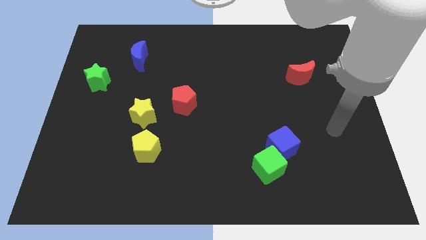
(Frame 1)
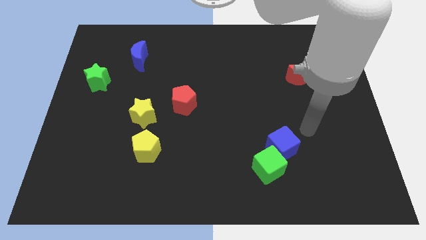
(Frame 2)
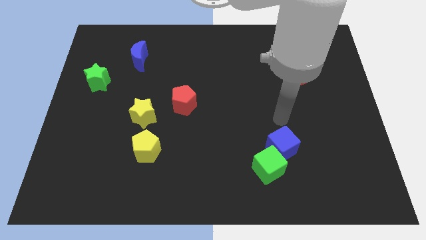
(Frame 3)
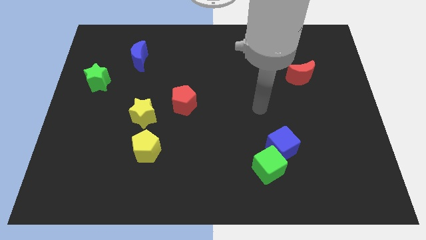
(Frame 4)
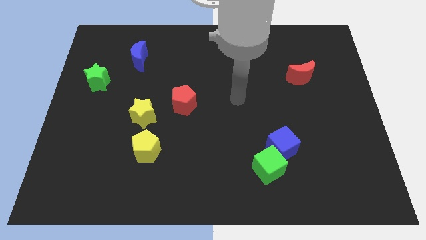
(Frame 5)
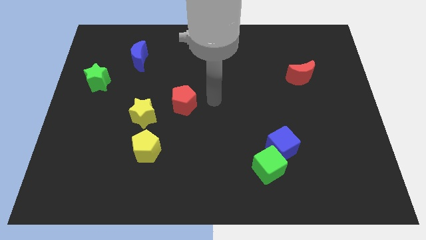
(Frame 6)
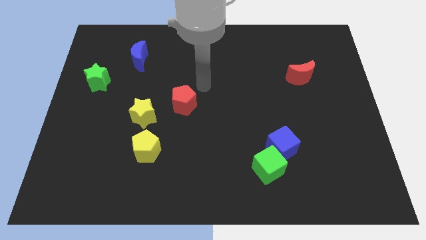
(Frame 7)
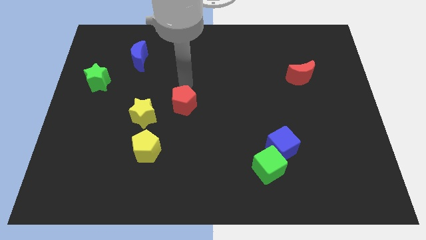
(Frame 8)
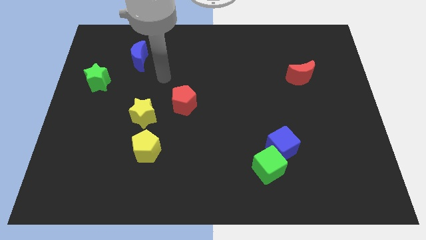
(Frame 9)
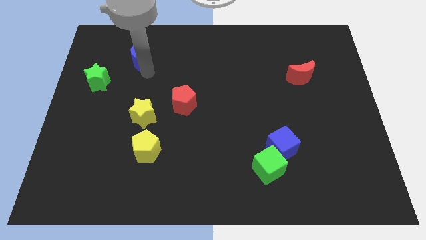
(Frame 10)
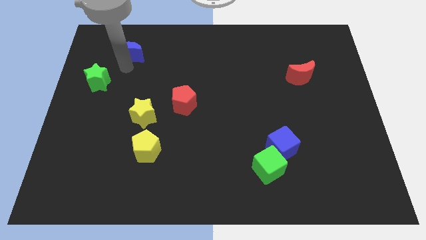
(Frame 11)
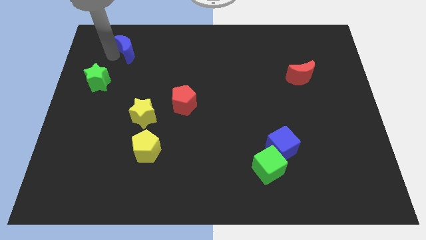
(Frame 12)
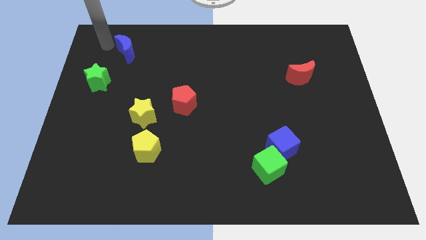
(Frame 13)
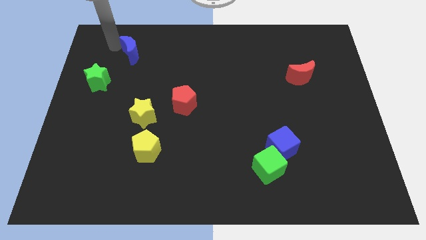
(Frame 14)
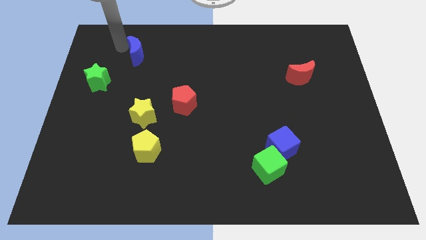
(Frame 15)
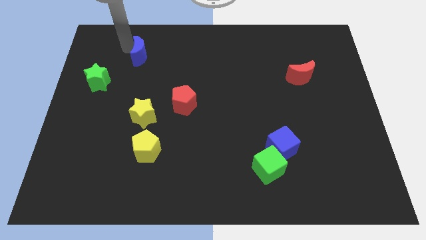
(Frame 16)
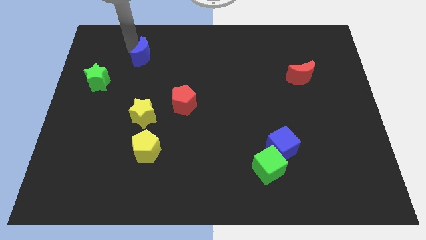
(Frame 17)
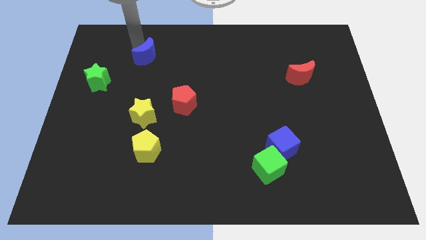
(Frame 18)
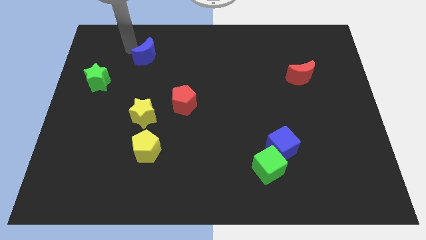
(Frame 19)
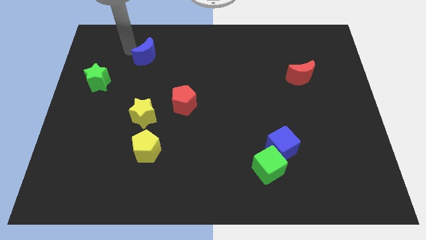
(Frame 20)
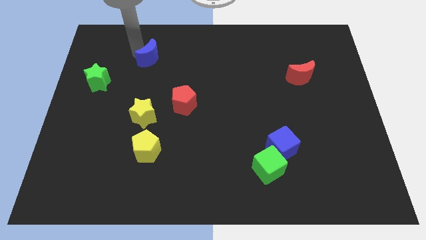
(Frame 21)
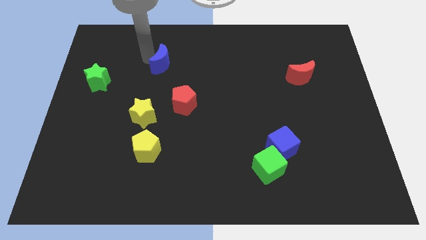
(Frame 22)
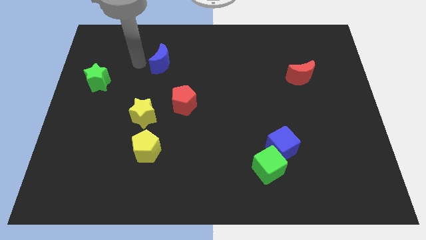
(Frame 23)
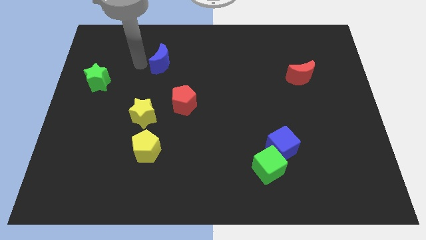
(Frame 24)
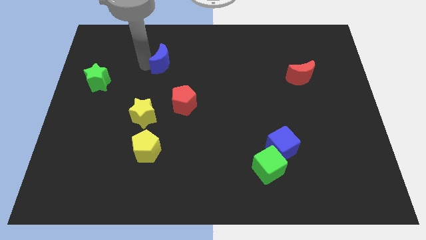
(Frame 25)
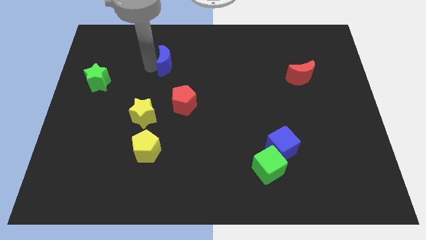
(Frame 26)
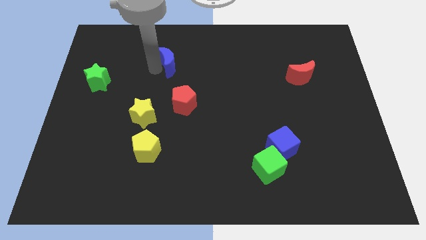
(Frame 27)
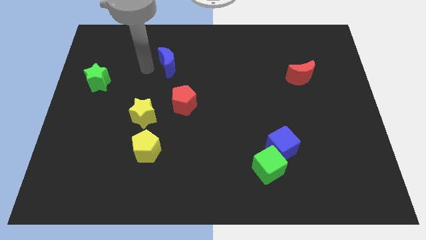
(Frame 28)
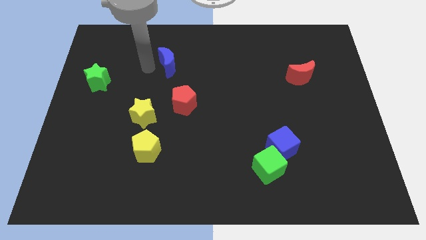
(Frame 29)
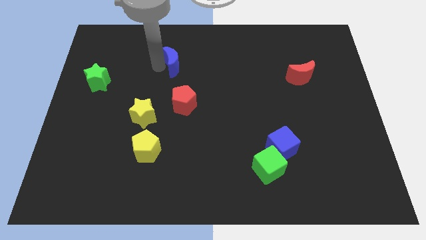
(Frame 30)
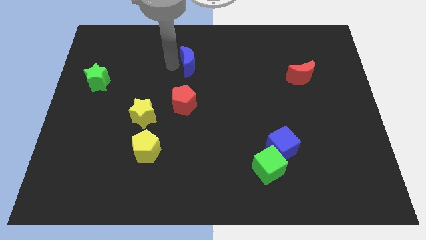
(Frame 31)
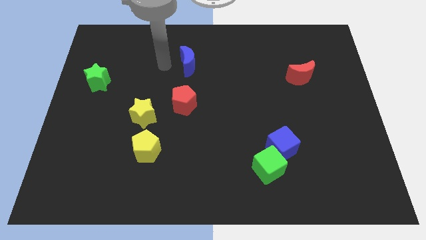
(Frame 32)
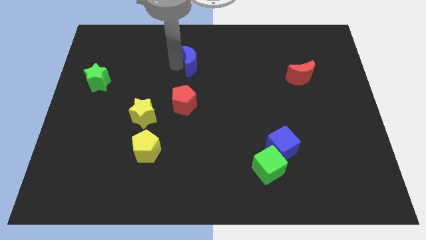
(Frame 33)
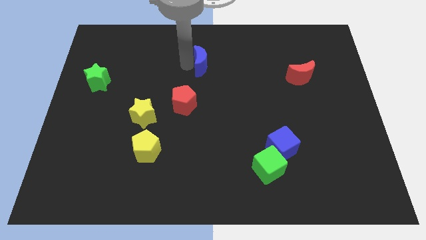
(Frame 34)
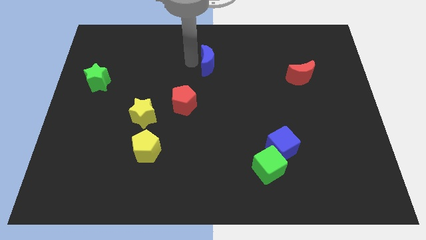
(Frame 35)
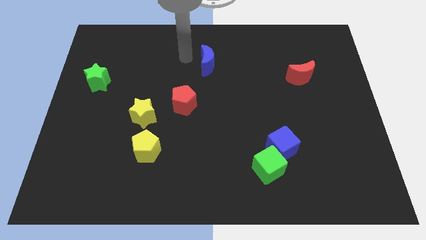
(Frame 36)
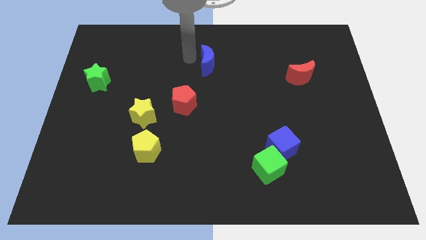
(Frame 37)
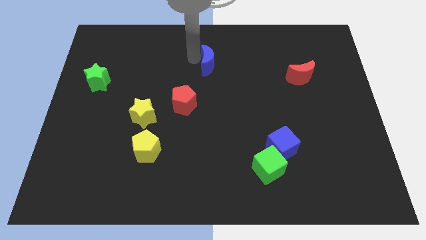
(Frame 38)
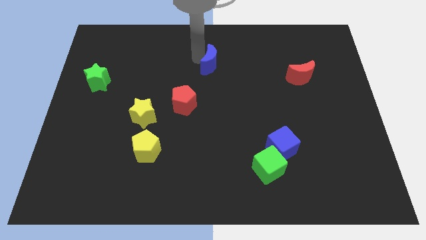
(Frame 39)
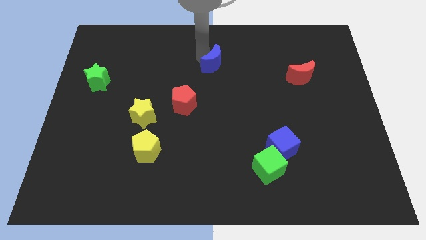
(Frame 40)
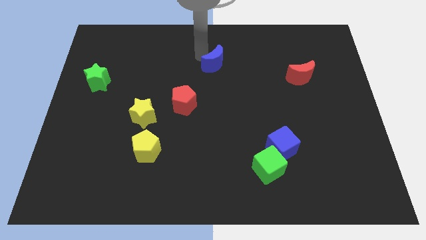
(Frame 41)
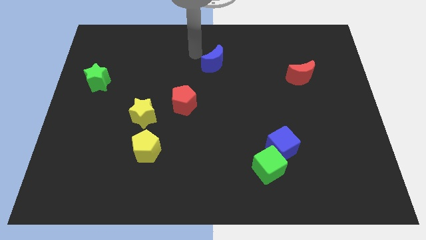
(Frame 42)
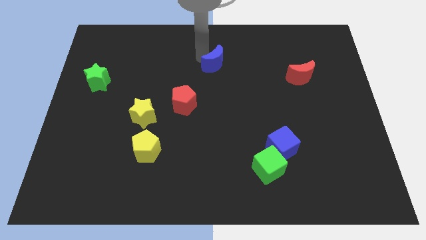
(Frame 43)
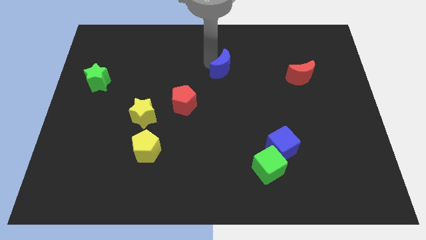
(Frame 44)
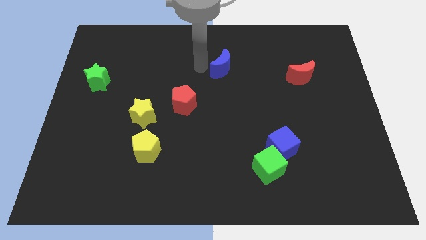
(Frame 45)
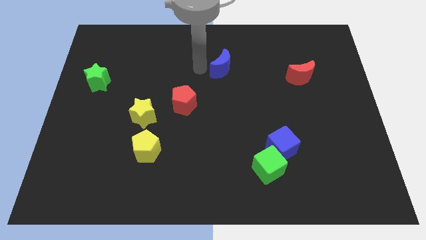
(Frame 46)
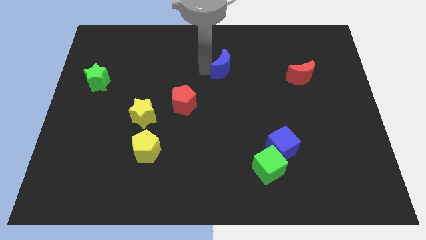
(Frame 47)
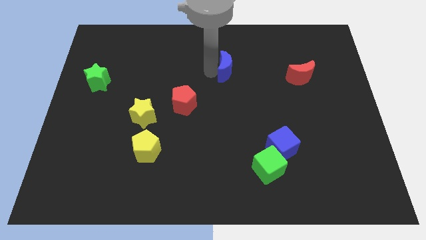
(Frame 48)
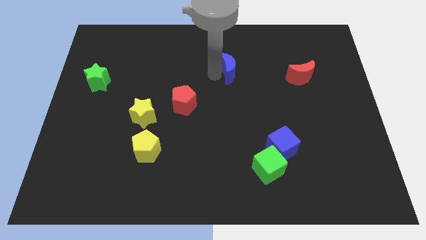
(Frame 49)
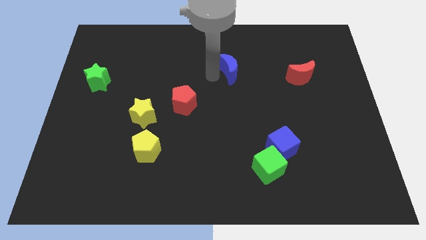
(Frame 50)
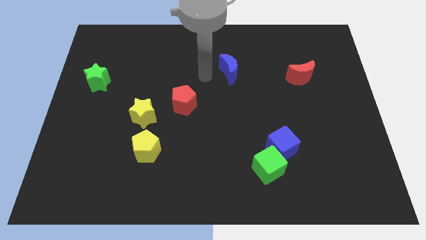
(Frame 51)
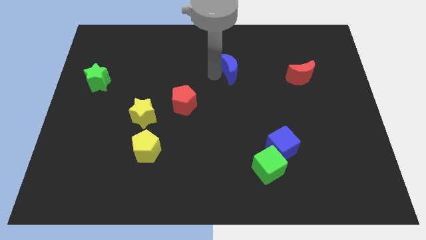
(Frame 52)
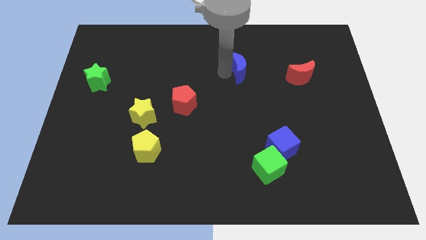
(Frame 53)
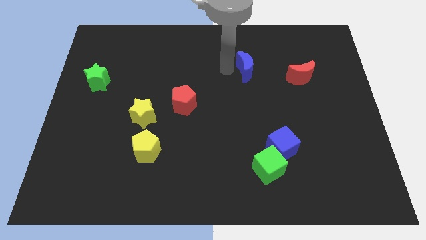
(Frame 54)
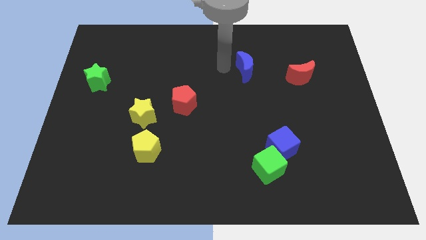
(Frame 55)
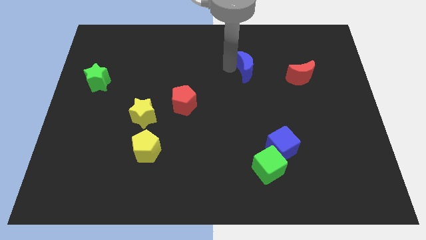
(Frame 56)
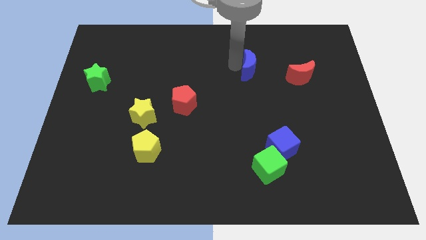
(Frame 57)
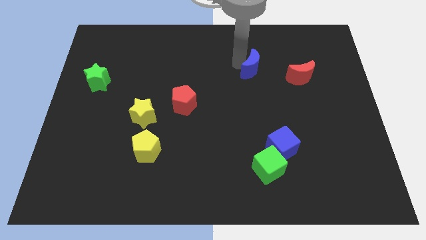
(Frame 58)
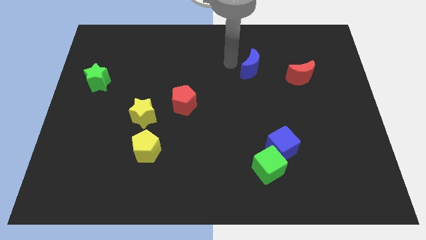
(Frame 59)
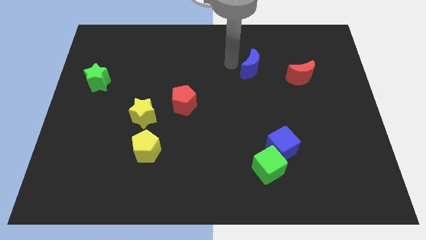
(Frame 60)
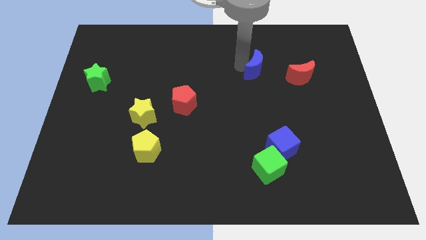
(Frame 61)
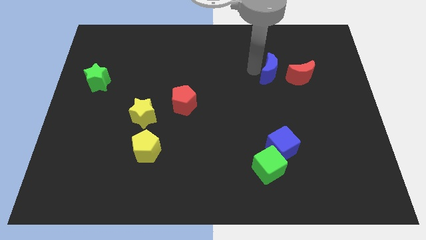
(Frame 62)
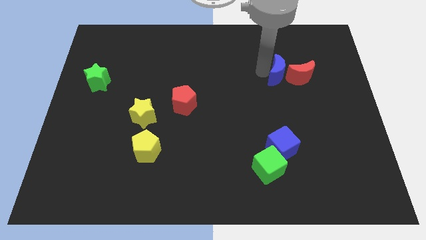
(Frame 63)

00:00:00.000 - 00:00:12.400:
push the blue moon to the red moon

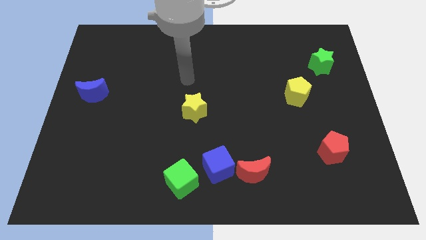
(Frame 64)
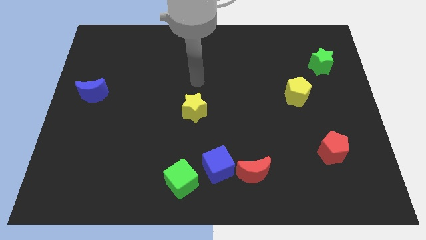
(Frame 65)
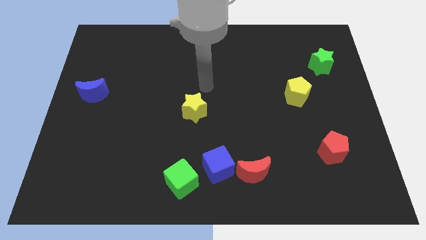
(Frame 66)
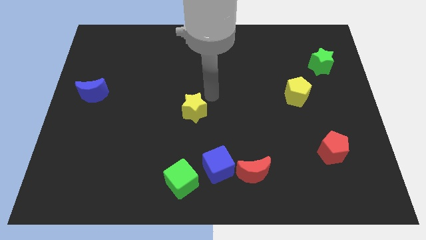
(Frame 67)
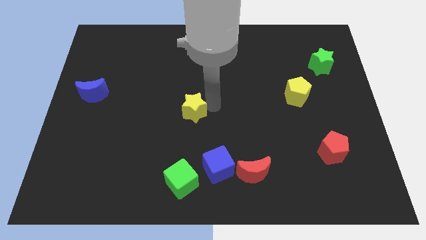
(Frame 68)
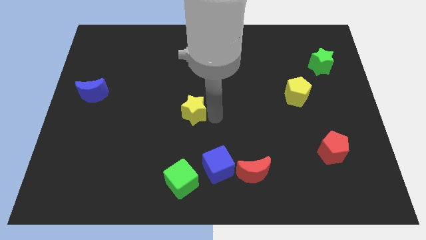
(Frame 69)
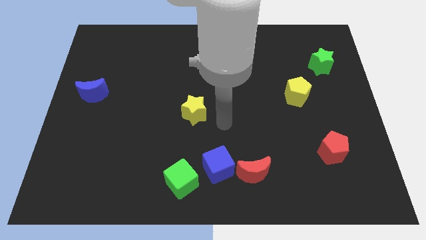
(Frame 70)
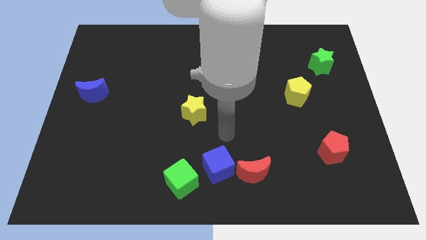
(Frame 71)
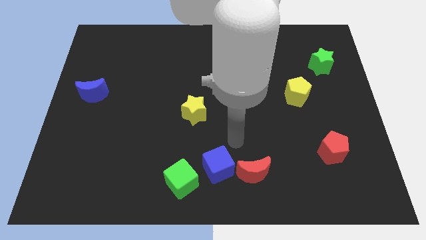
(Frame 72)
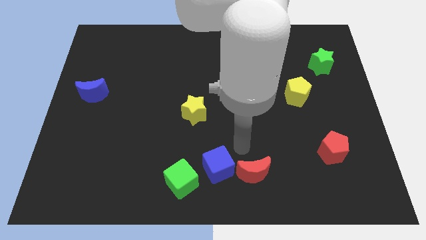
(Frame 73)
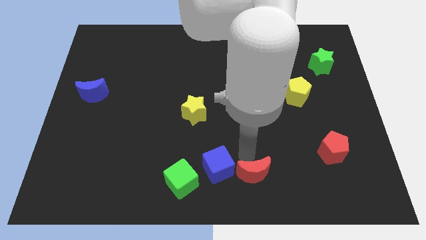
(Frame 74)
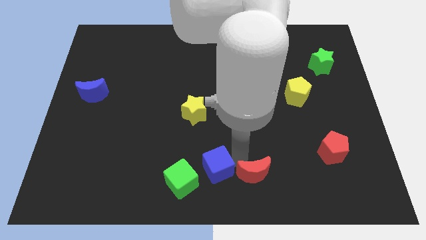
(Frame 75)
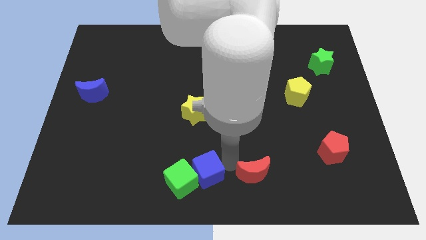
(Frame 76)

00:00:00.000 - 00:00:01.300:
put the blue cube to the green cube

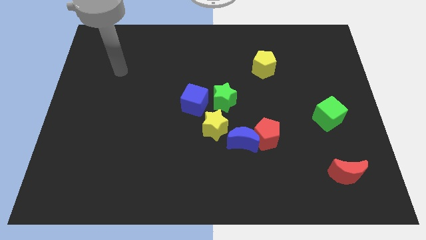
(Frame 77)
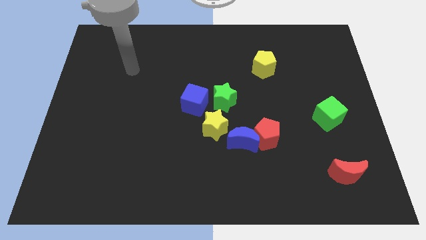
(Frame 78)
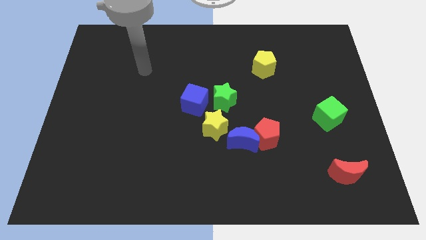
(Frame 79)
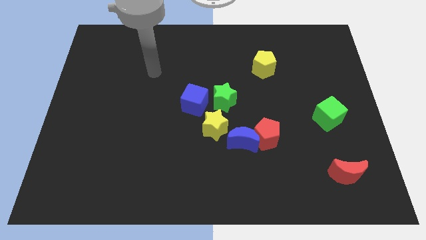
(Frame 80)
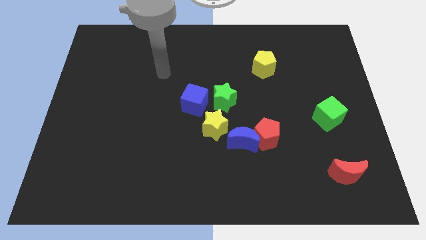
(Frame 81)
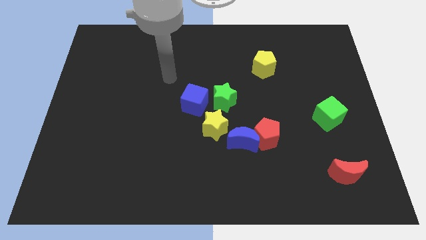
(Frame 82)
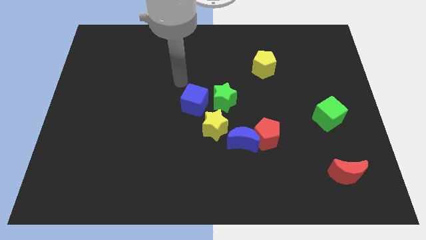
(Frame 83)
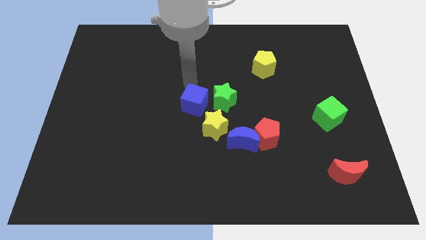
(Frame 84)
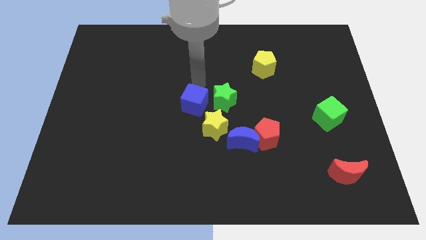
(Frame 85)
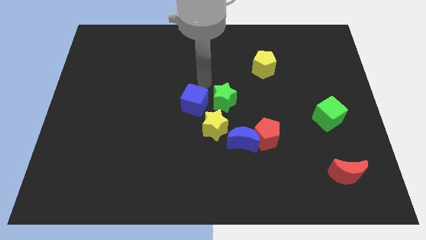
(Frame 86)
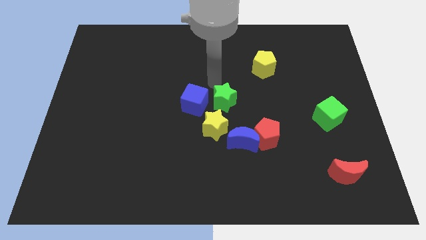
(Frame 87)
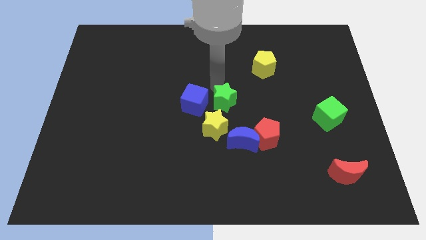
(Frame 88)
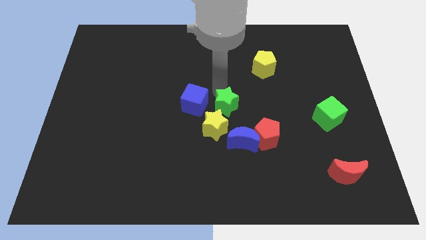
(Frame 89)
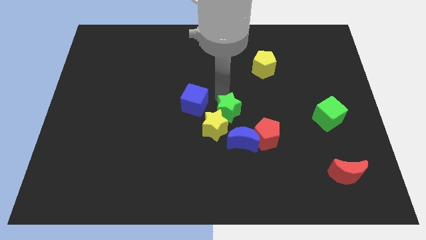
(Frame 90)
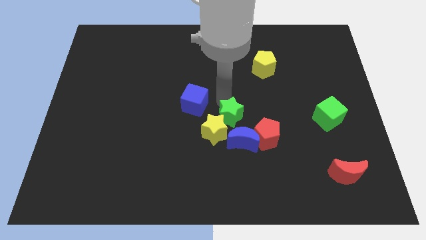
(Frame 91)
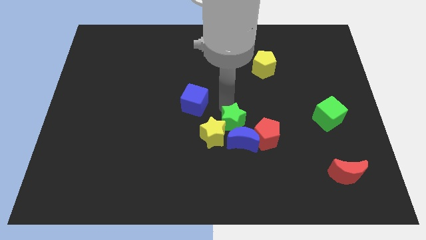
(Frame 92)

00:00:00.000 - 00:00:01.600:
move the green star next to the blue moon
